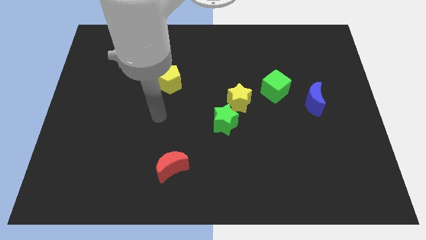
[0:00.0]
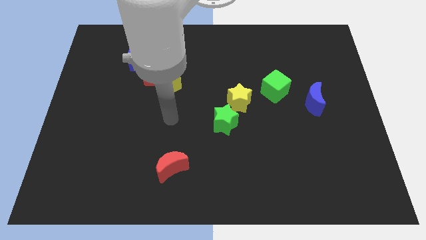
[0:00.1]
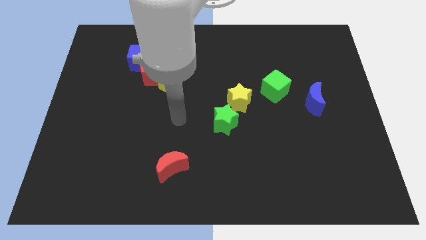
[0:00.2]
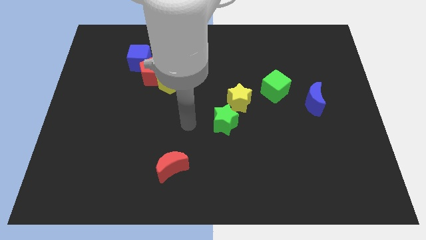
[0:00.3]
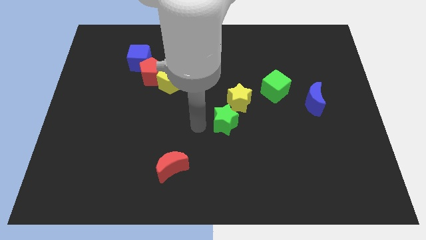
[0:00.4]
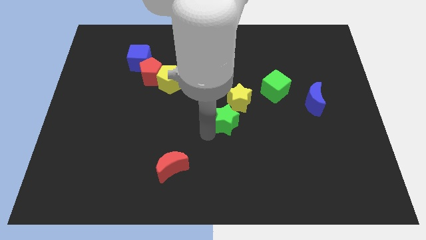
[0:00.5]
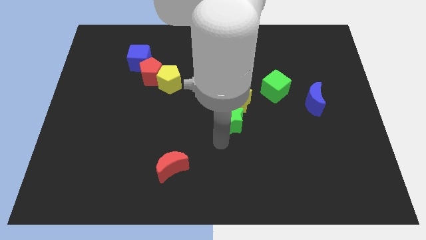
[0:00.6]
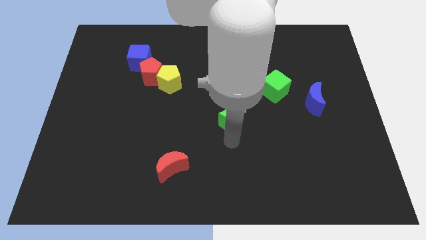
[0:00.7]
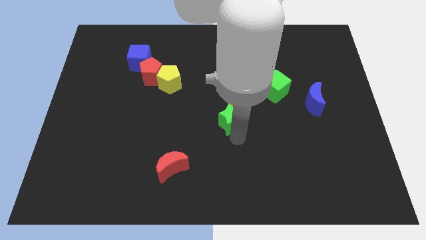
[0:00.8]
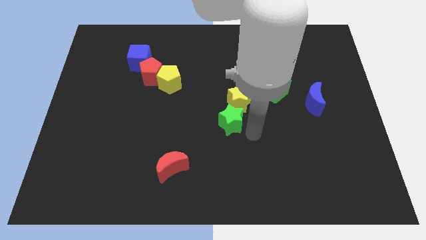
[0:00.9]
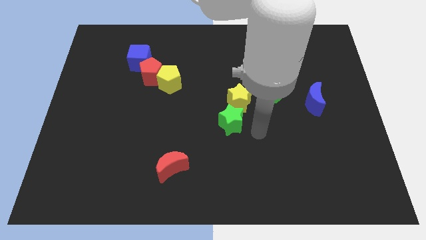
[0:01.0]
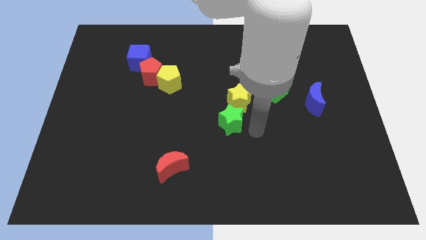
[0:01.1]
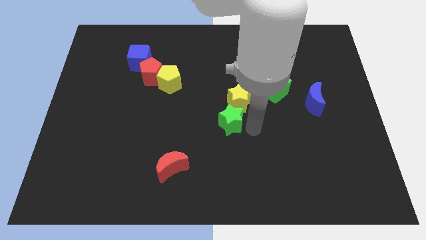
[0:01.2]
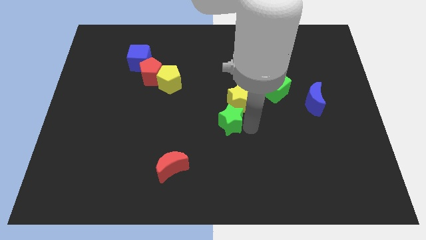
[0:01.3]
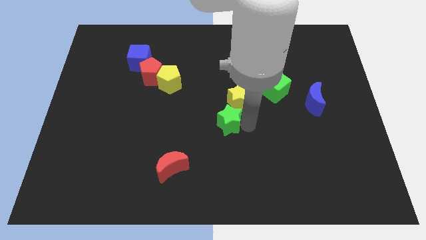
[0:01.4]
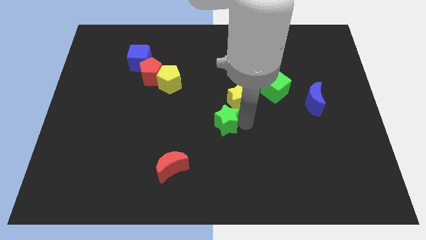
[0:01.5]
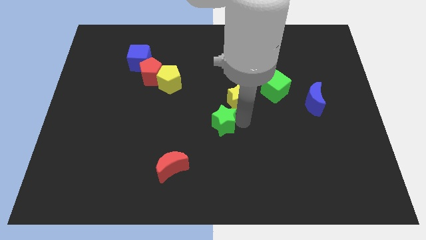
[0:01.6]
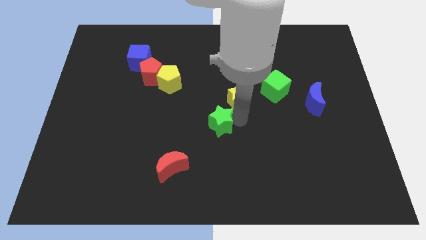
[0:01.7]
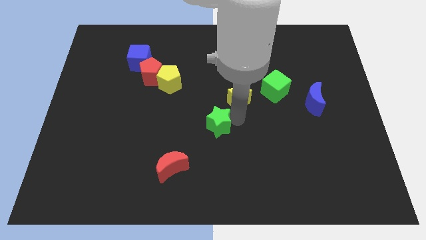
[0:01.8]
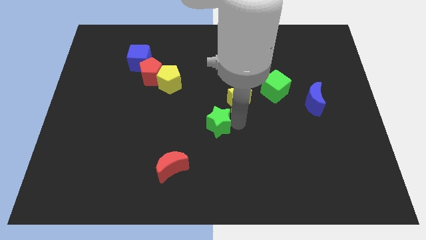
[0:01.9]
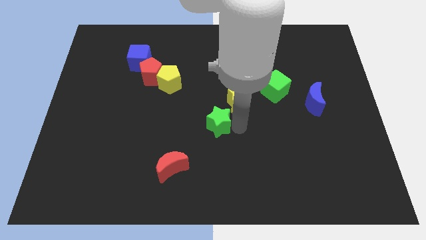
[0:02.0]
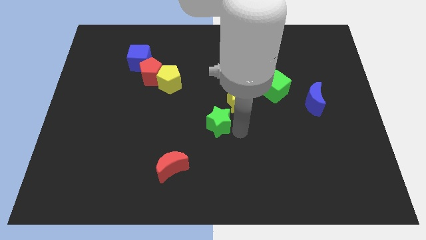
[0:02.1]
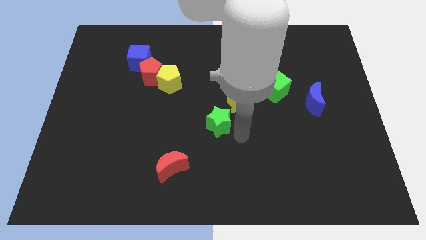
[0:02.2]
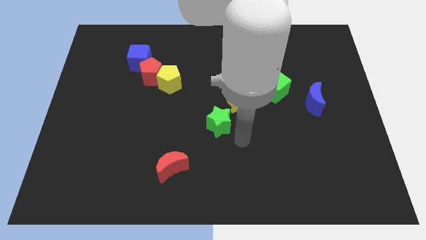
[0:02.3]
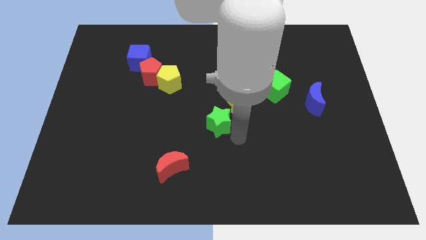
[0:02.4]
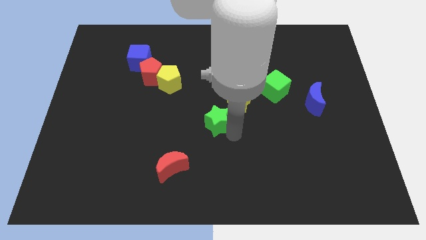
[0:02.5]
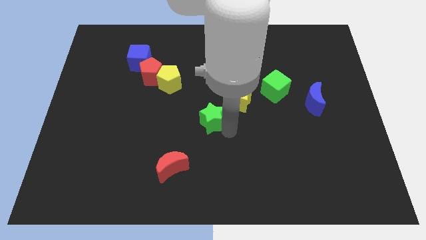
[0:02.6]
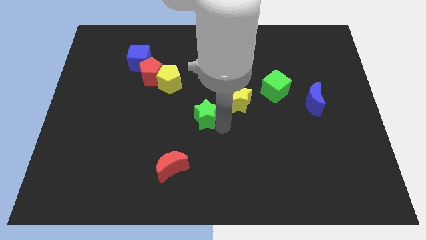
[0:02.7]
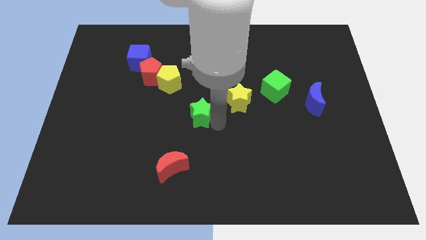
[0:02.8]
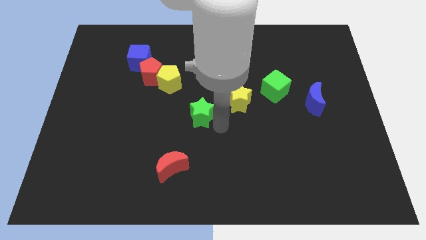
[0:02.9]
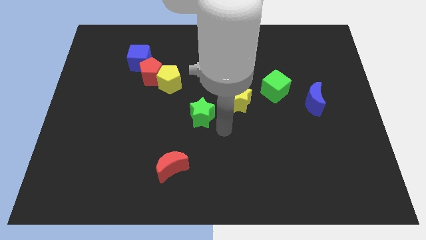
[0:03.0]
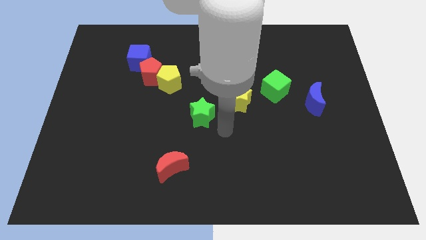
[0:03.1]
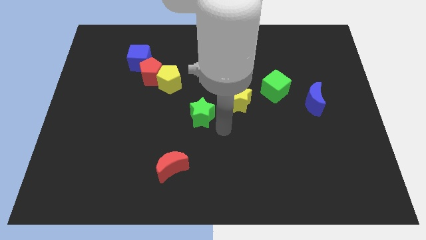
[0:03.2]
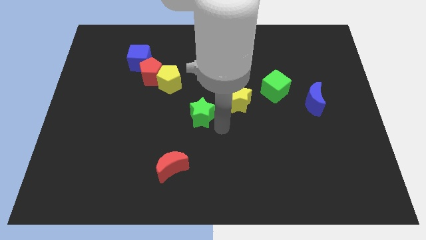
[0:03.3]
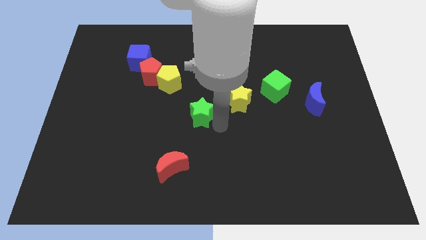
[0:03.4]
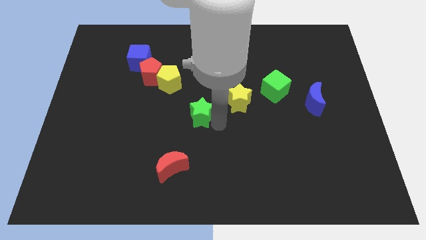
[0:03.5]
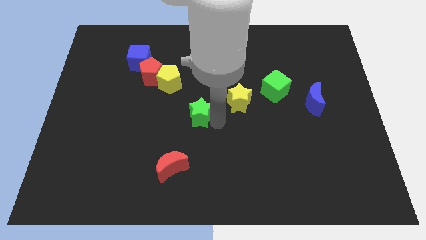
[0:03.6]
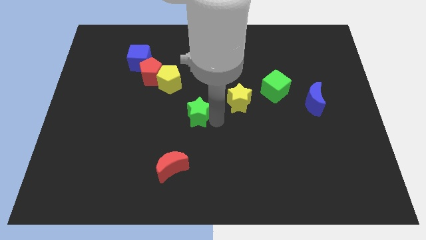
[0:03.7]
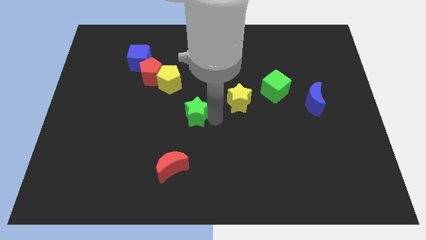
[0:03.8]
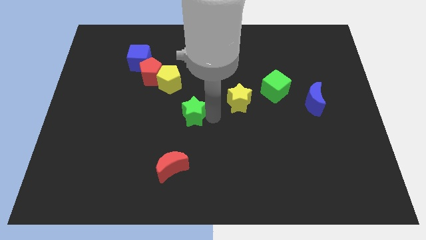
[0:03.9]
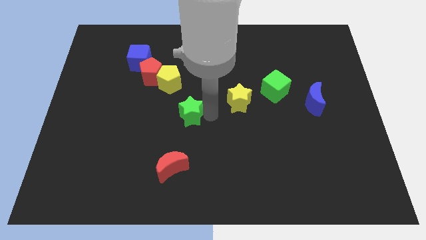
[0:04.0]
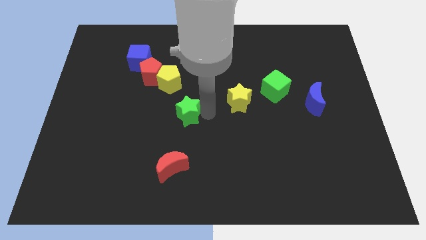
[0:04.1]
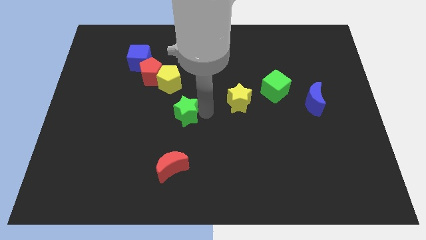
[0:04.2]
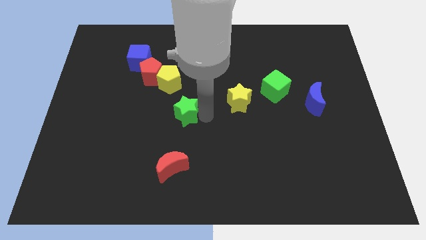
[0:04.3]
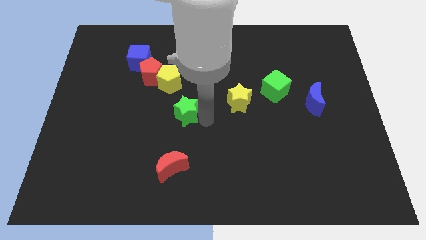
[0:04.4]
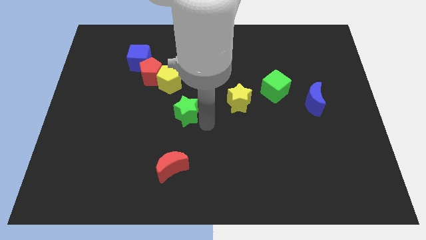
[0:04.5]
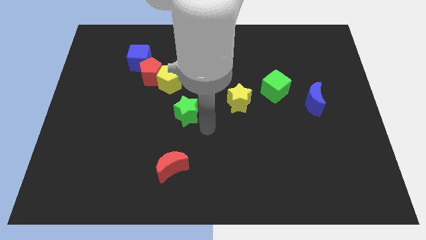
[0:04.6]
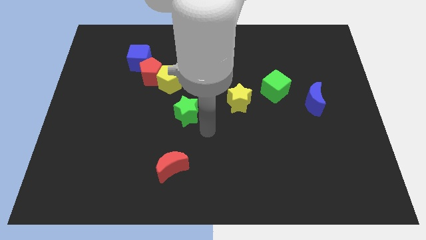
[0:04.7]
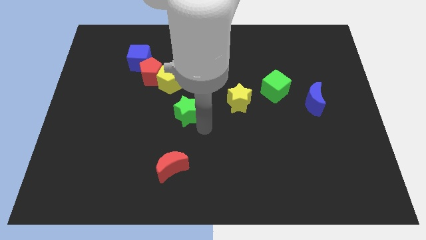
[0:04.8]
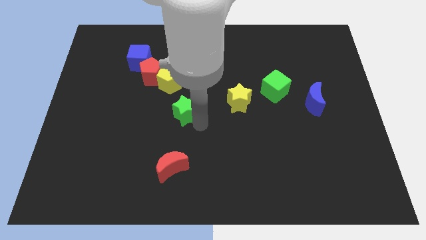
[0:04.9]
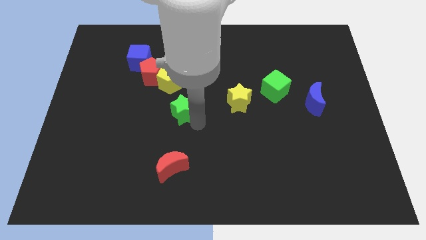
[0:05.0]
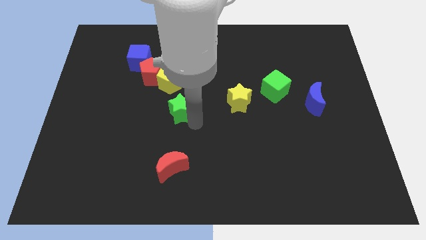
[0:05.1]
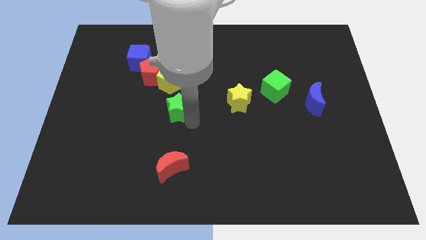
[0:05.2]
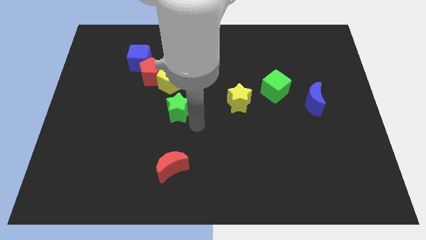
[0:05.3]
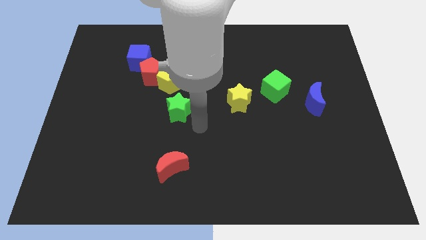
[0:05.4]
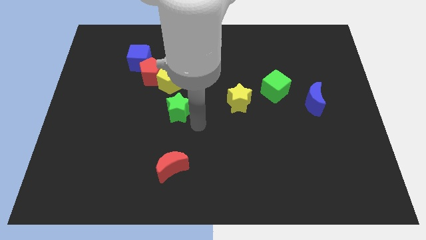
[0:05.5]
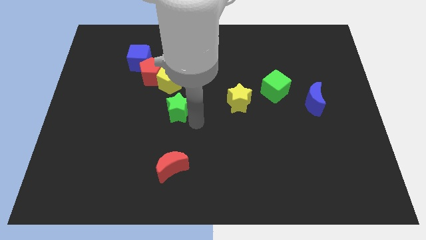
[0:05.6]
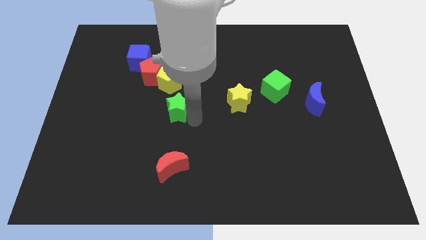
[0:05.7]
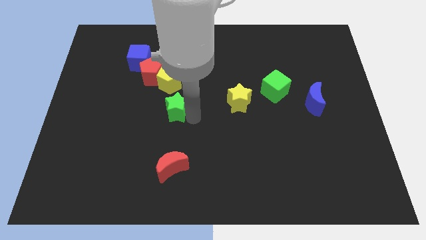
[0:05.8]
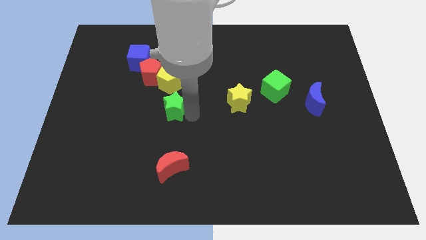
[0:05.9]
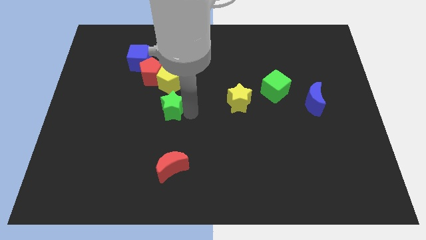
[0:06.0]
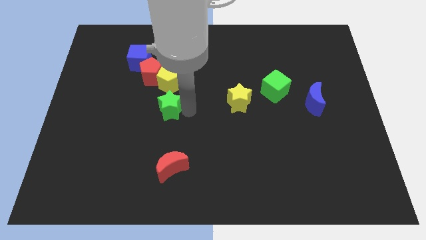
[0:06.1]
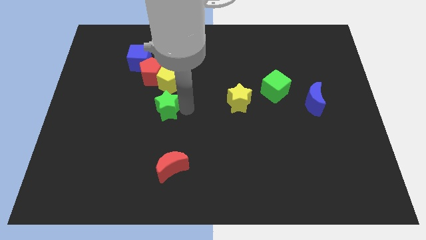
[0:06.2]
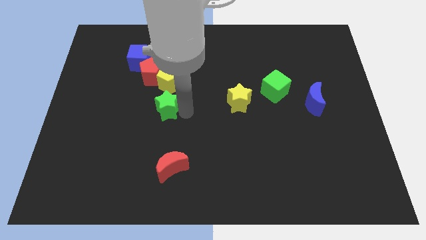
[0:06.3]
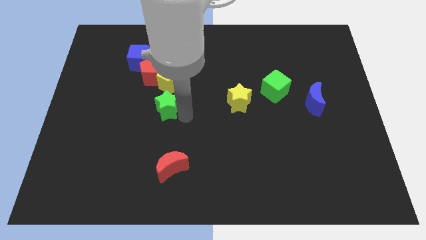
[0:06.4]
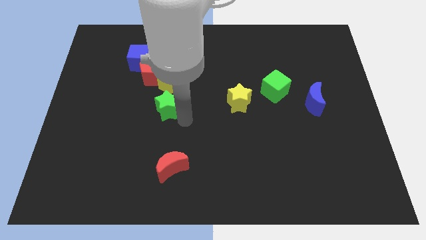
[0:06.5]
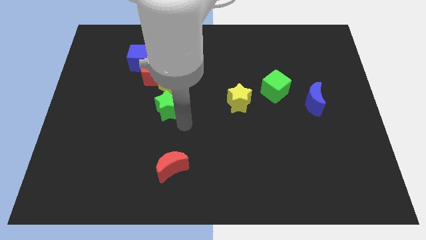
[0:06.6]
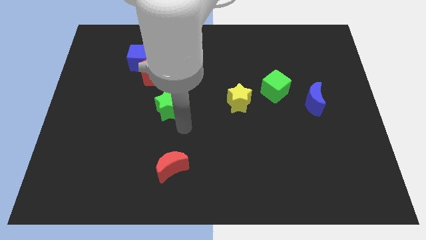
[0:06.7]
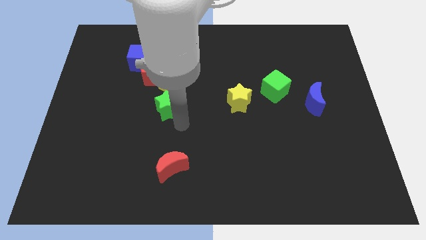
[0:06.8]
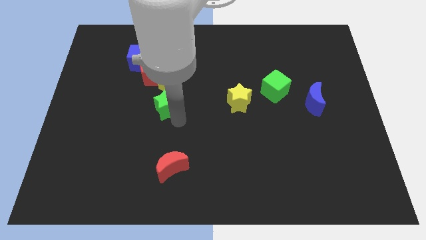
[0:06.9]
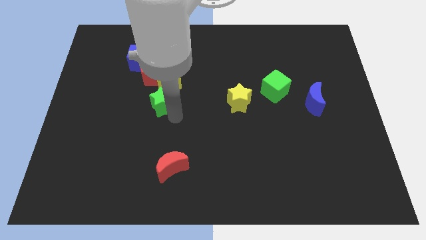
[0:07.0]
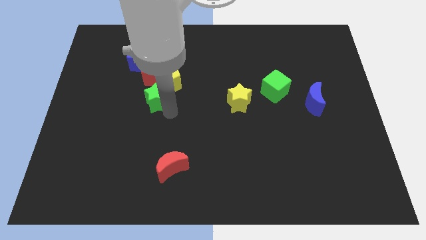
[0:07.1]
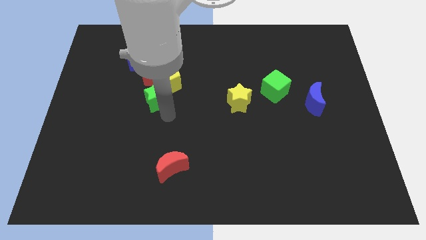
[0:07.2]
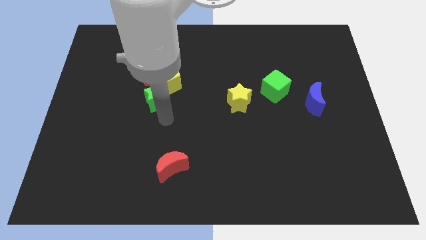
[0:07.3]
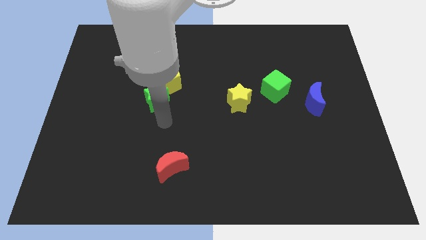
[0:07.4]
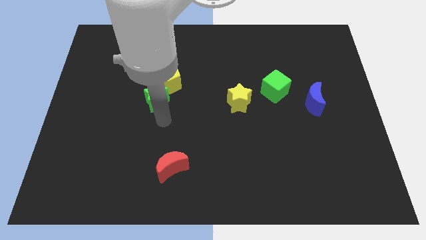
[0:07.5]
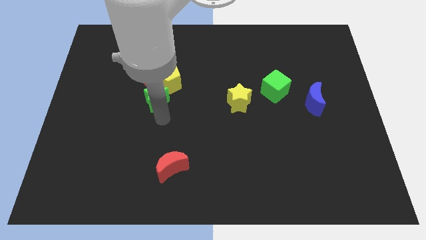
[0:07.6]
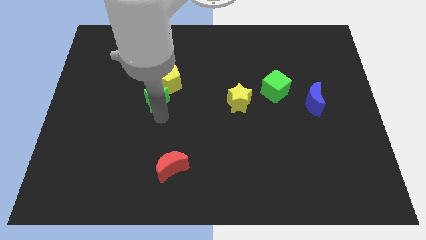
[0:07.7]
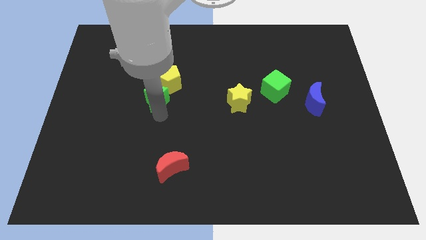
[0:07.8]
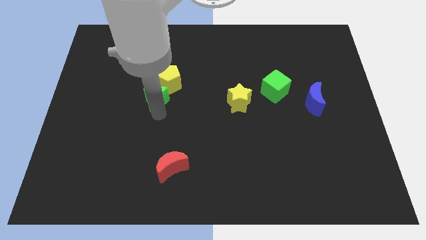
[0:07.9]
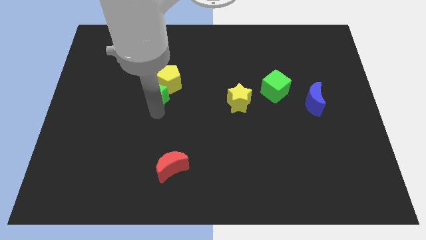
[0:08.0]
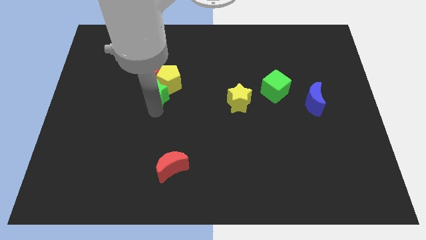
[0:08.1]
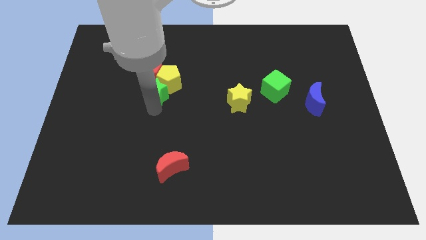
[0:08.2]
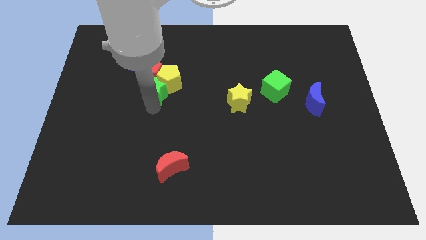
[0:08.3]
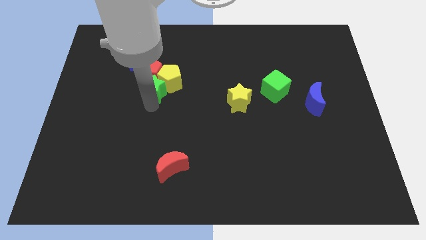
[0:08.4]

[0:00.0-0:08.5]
push the green star next to the red pentagon
